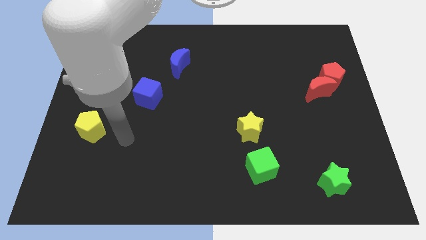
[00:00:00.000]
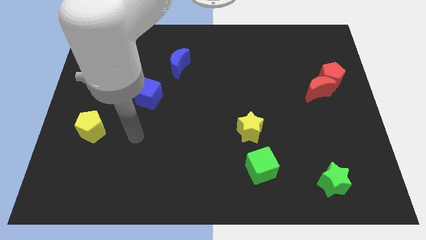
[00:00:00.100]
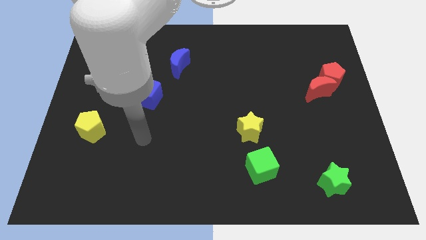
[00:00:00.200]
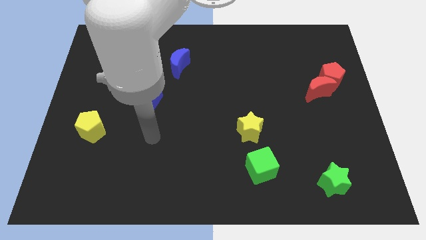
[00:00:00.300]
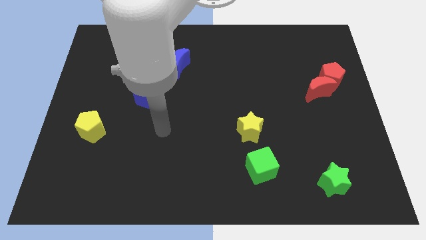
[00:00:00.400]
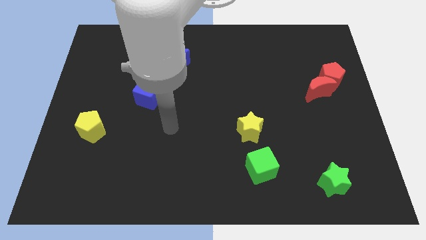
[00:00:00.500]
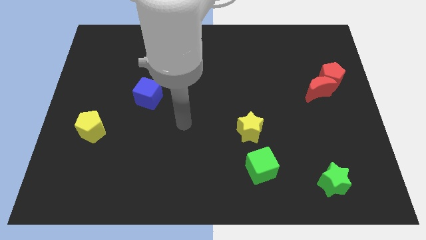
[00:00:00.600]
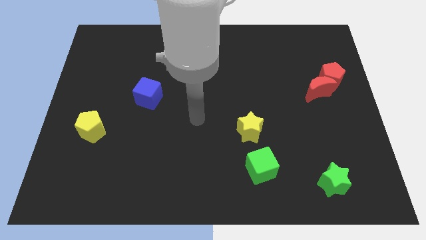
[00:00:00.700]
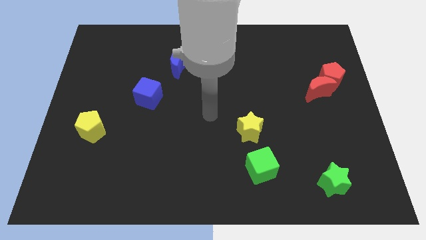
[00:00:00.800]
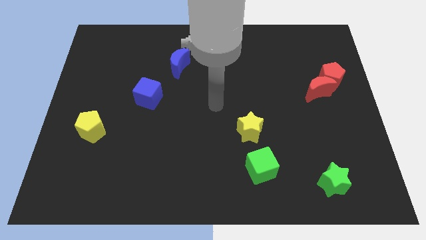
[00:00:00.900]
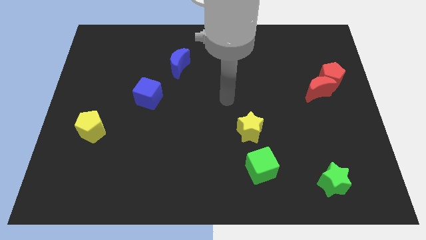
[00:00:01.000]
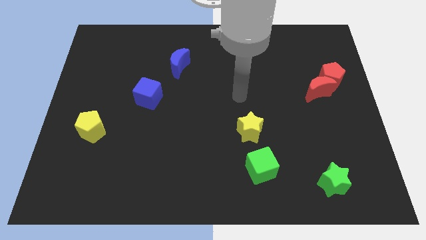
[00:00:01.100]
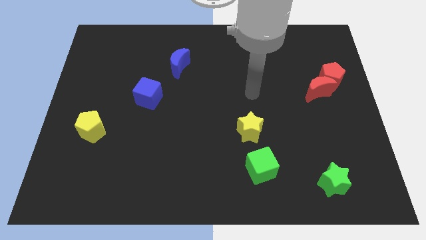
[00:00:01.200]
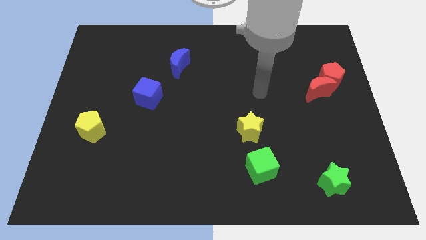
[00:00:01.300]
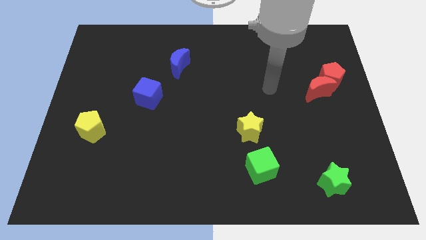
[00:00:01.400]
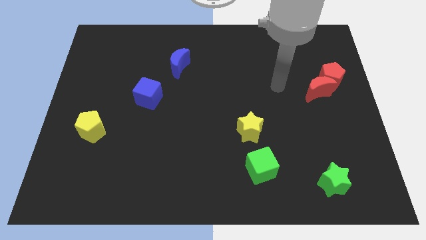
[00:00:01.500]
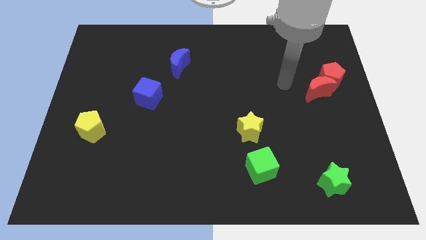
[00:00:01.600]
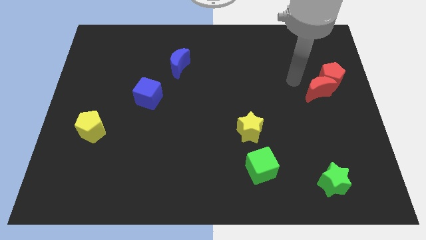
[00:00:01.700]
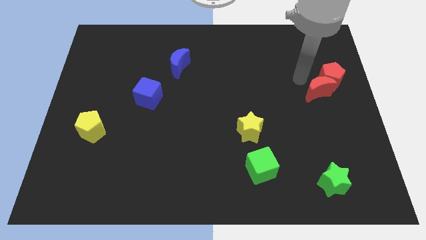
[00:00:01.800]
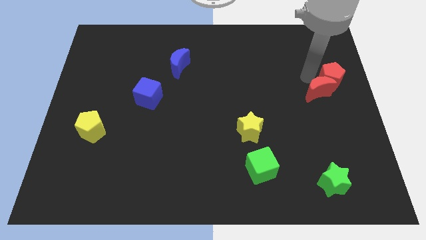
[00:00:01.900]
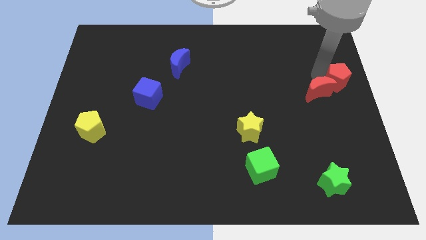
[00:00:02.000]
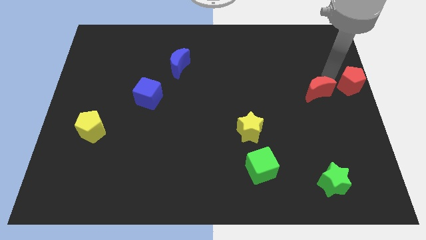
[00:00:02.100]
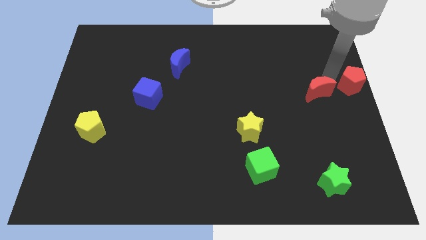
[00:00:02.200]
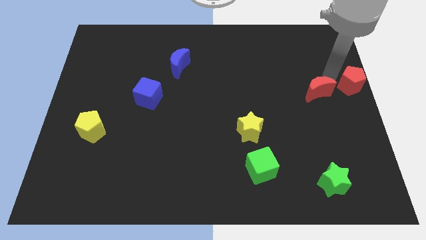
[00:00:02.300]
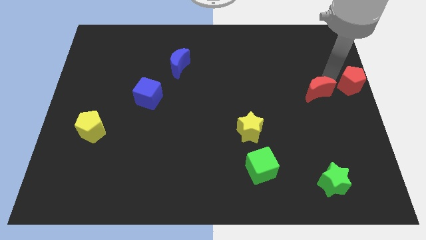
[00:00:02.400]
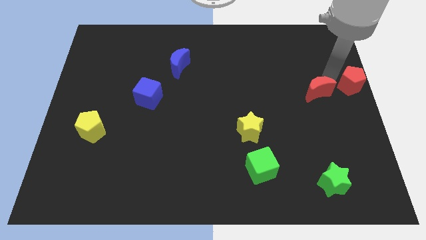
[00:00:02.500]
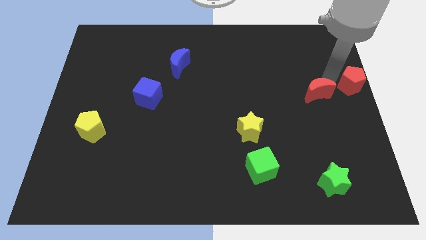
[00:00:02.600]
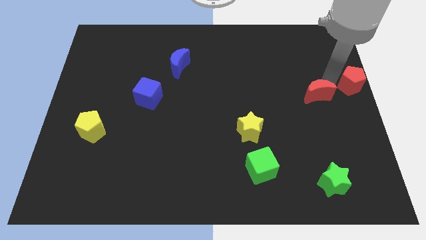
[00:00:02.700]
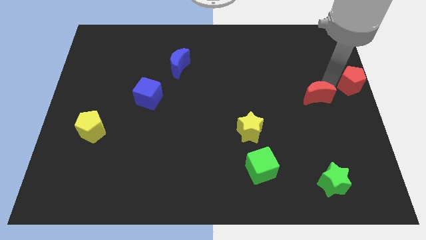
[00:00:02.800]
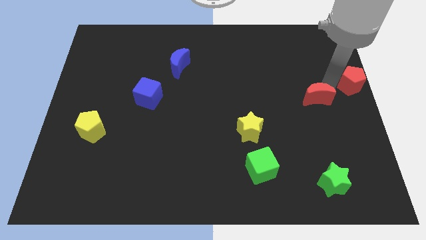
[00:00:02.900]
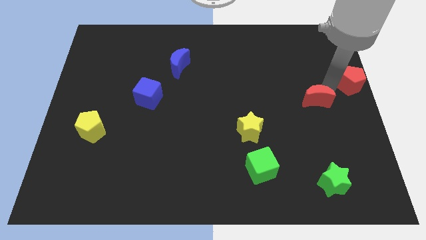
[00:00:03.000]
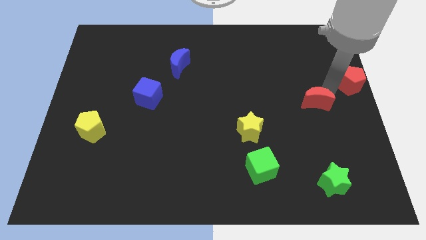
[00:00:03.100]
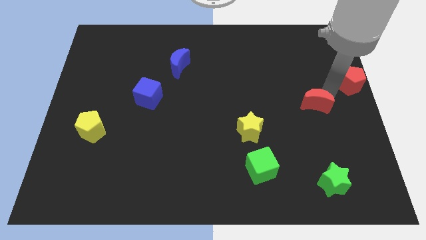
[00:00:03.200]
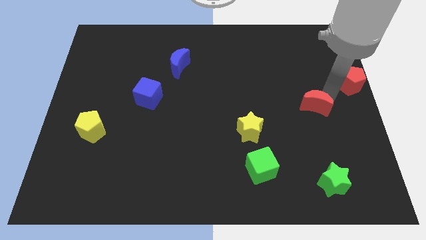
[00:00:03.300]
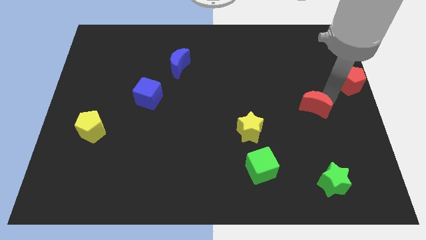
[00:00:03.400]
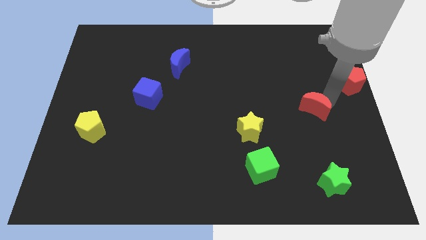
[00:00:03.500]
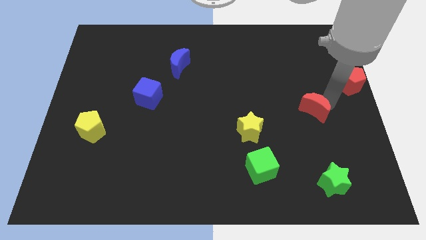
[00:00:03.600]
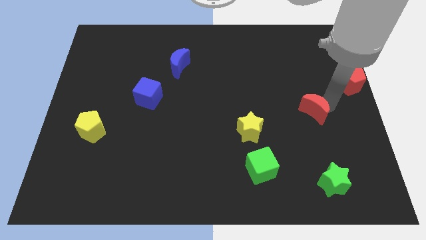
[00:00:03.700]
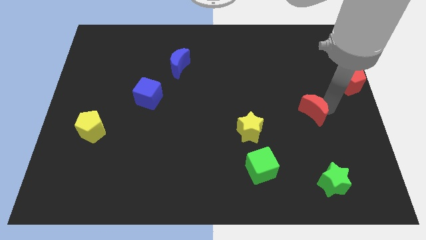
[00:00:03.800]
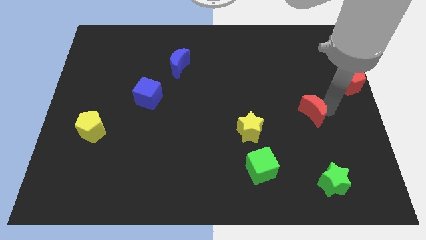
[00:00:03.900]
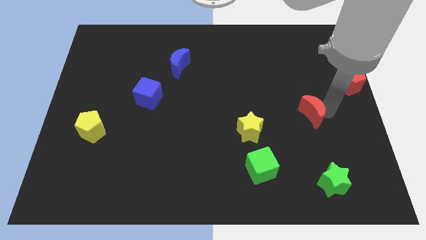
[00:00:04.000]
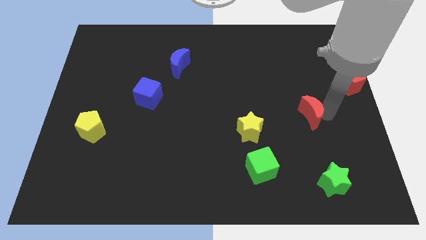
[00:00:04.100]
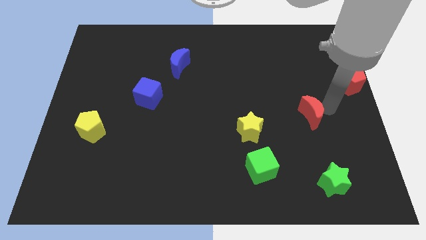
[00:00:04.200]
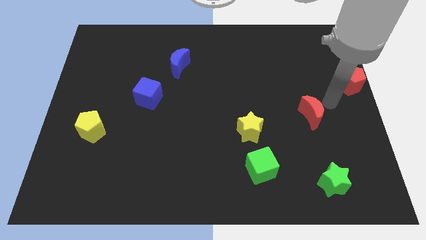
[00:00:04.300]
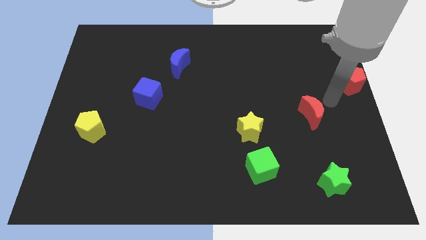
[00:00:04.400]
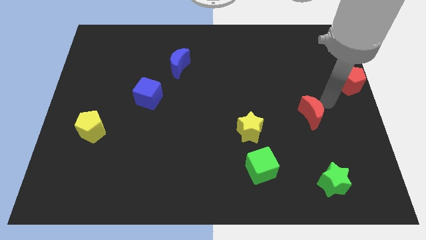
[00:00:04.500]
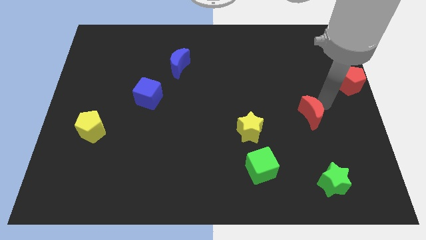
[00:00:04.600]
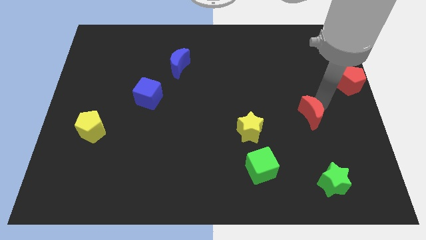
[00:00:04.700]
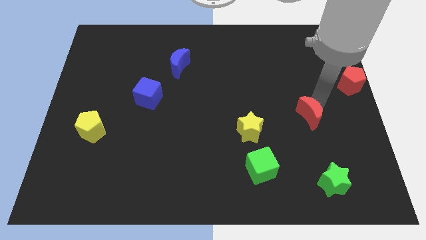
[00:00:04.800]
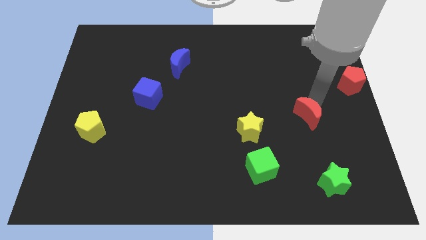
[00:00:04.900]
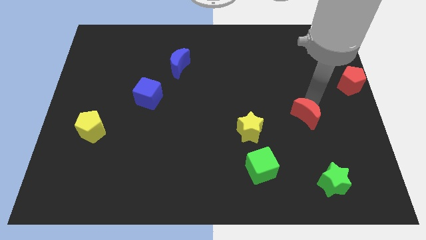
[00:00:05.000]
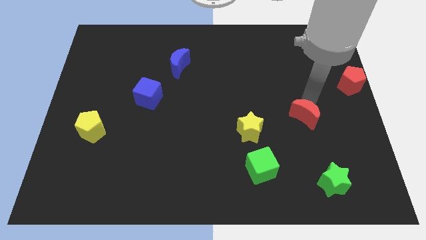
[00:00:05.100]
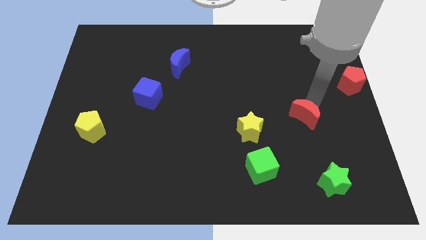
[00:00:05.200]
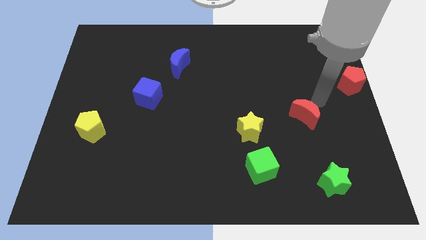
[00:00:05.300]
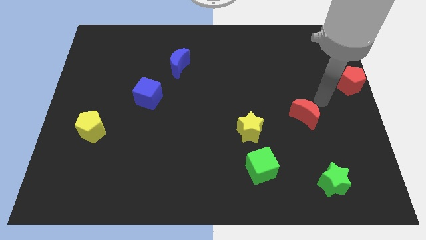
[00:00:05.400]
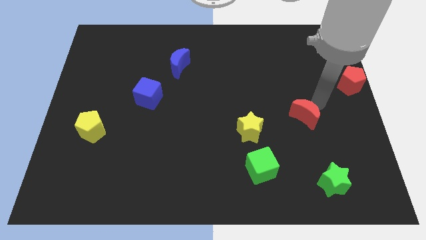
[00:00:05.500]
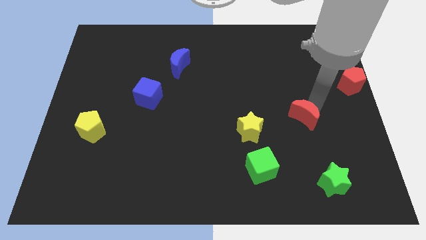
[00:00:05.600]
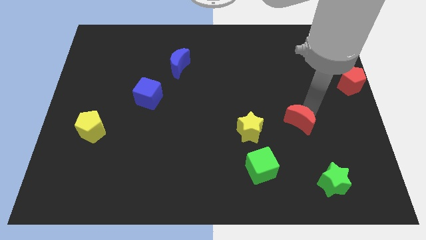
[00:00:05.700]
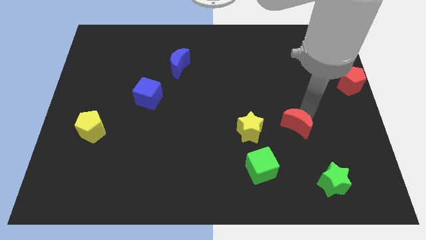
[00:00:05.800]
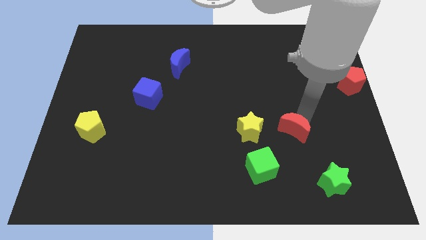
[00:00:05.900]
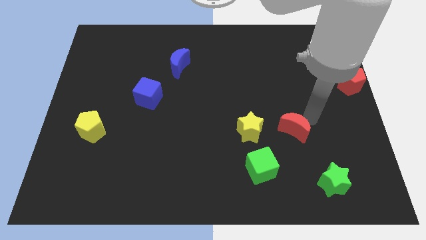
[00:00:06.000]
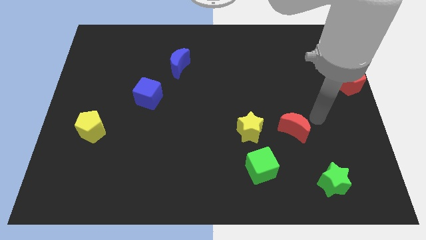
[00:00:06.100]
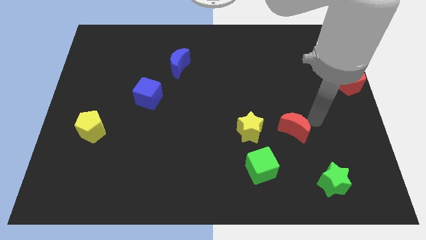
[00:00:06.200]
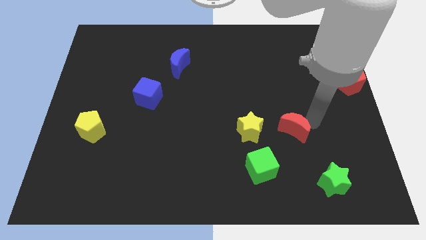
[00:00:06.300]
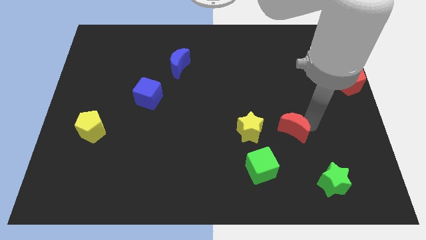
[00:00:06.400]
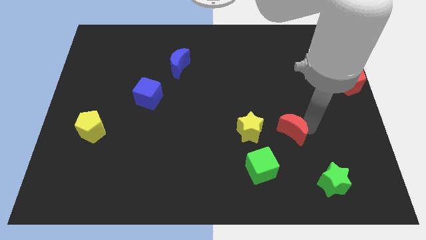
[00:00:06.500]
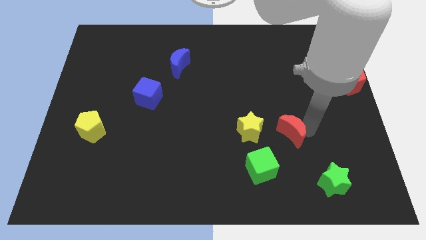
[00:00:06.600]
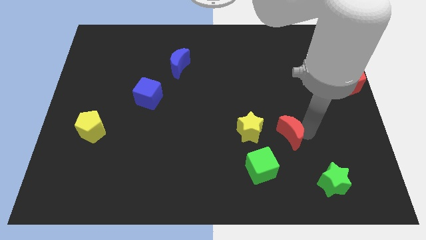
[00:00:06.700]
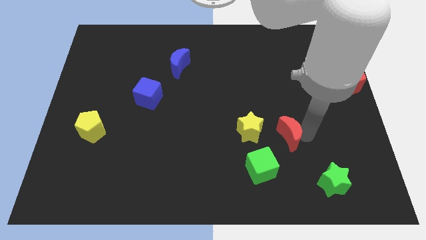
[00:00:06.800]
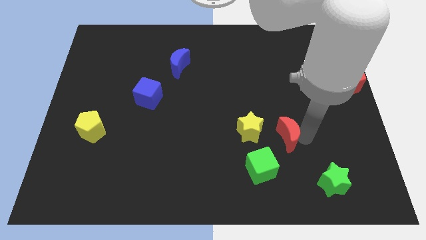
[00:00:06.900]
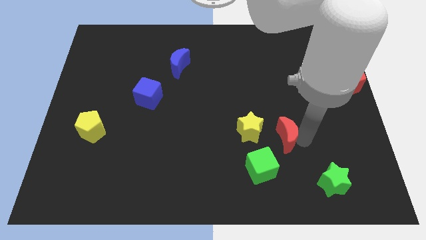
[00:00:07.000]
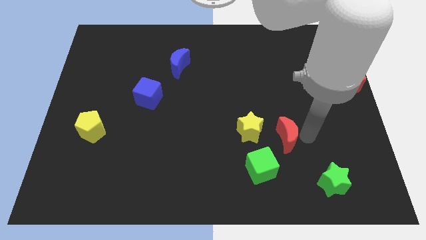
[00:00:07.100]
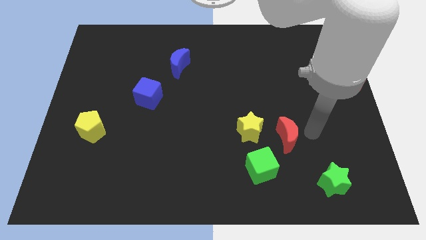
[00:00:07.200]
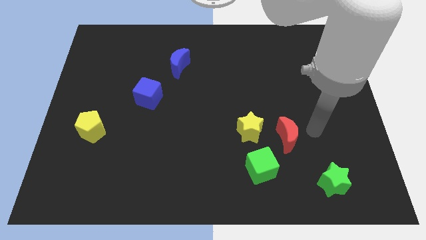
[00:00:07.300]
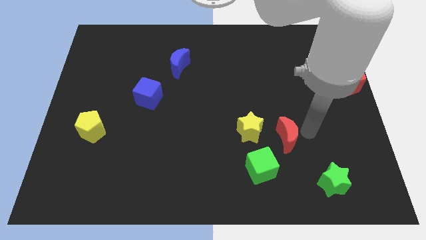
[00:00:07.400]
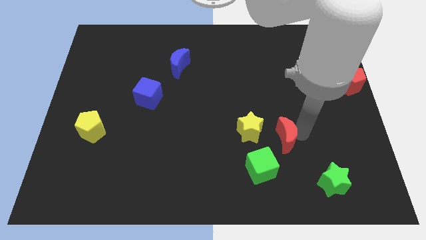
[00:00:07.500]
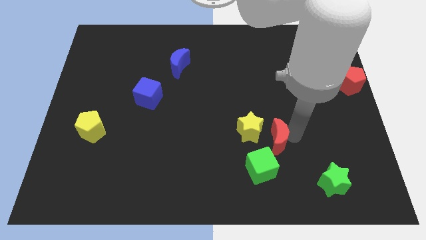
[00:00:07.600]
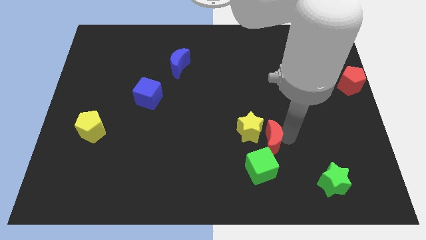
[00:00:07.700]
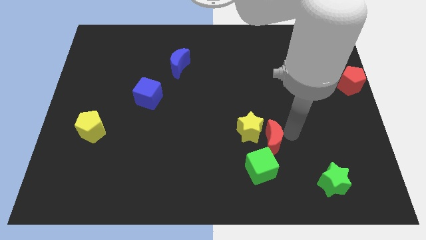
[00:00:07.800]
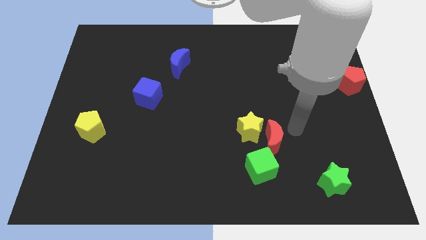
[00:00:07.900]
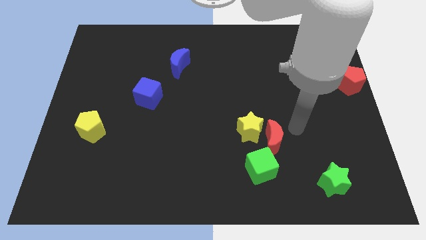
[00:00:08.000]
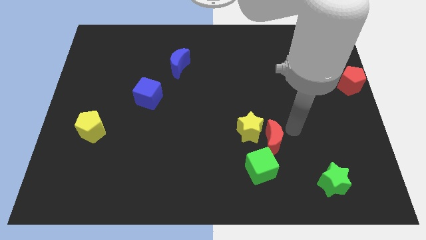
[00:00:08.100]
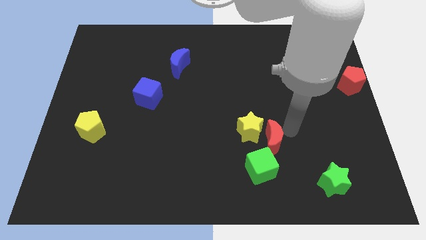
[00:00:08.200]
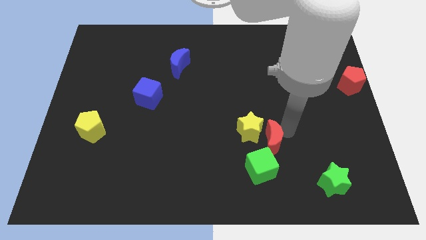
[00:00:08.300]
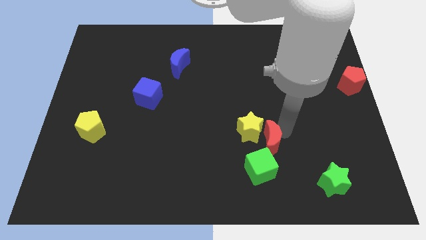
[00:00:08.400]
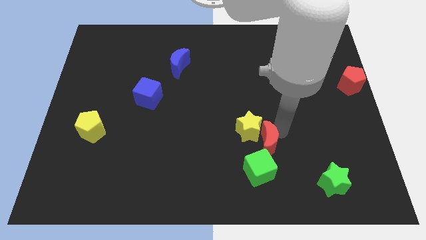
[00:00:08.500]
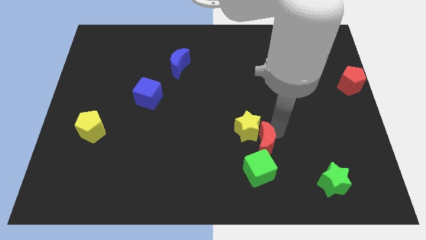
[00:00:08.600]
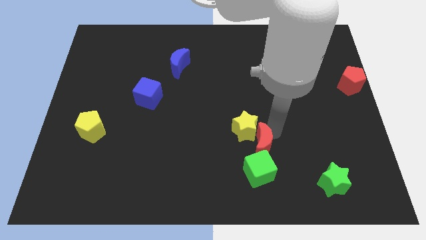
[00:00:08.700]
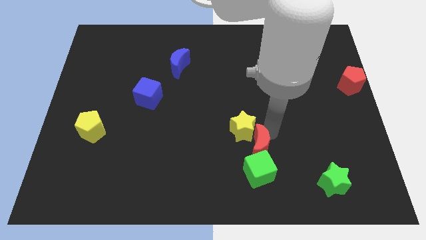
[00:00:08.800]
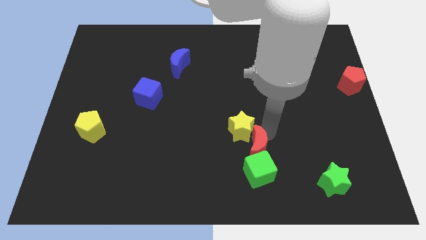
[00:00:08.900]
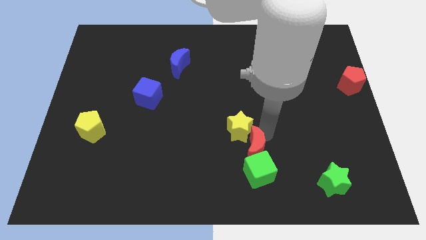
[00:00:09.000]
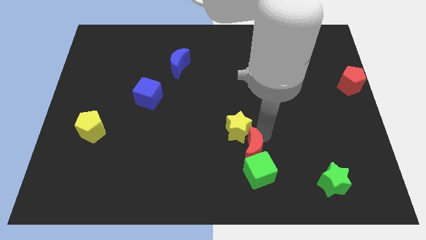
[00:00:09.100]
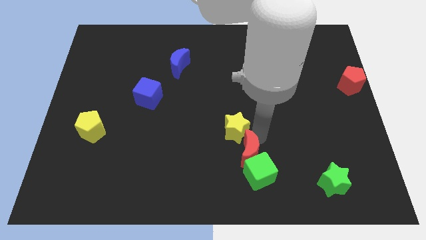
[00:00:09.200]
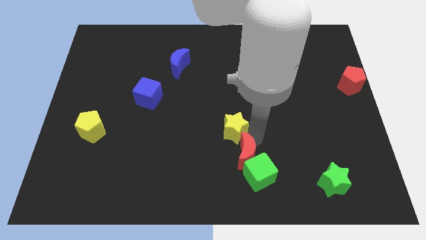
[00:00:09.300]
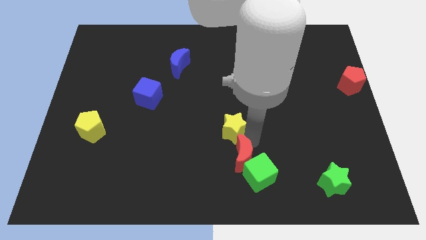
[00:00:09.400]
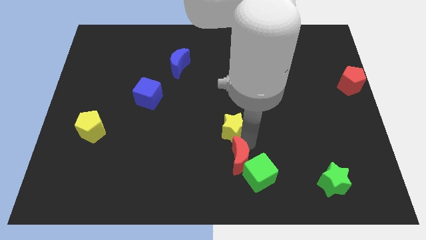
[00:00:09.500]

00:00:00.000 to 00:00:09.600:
put the red moon to the bottom
